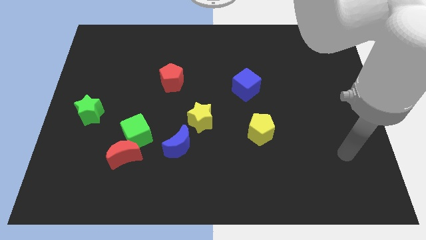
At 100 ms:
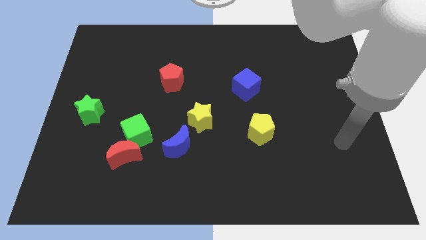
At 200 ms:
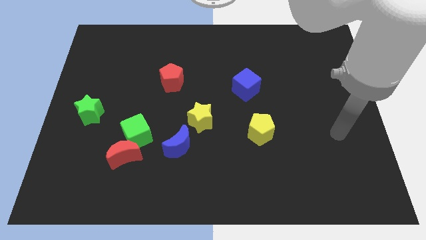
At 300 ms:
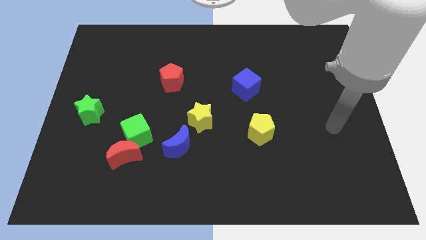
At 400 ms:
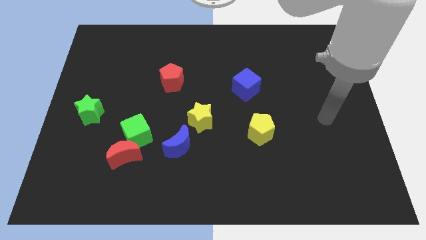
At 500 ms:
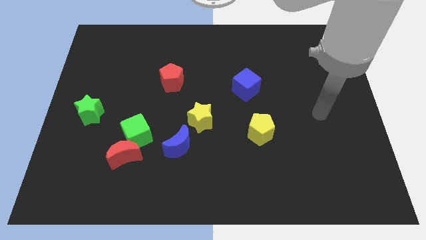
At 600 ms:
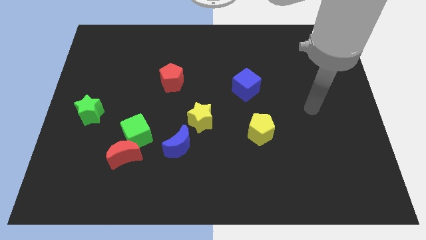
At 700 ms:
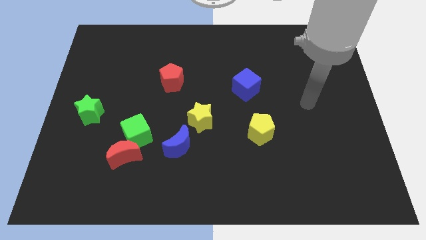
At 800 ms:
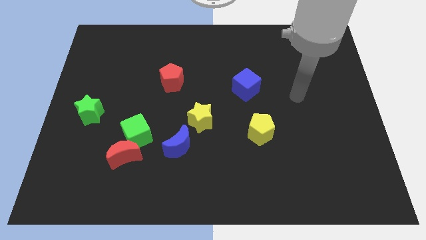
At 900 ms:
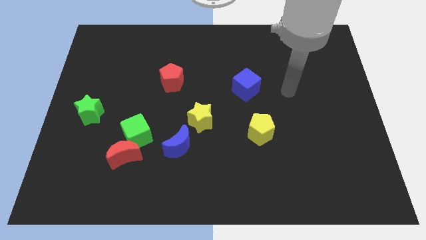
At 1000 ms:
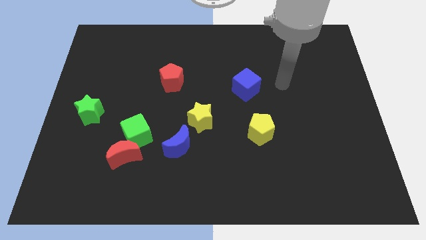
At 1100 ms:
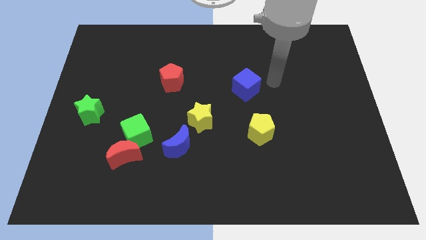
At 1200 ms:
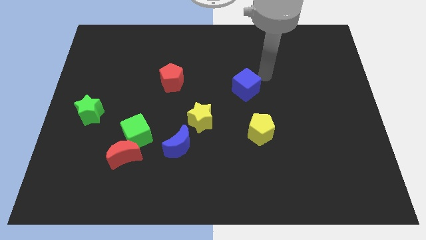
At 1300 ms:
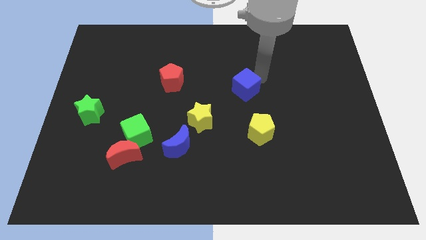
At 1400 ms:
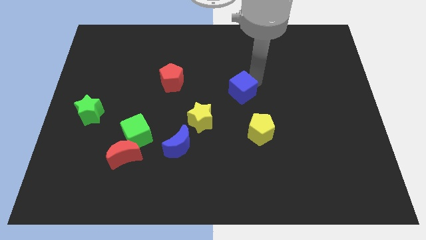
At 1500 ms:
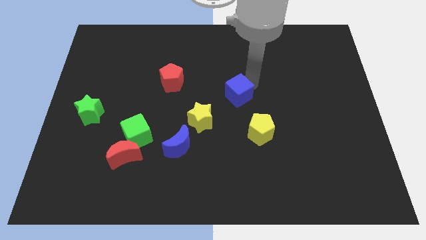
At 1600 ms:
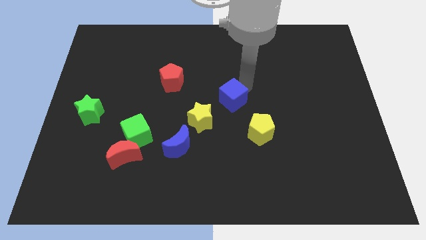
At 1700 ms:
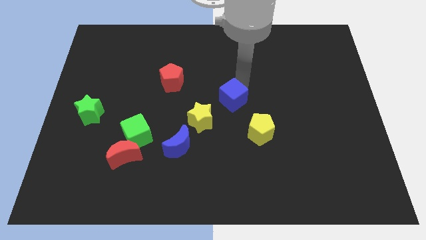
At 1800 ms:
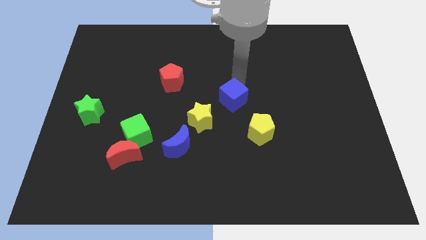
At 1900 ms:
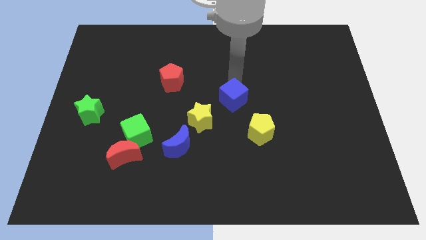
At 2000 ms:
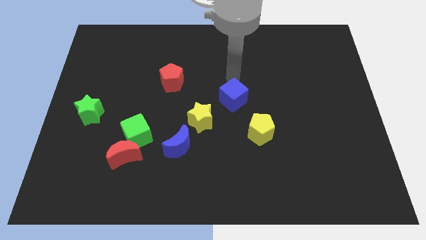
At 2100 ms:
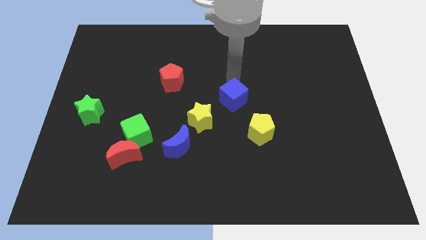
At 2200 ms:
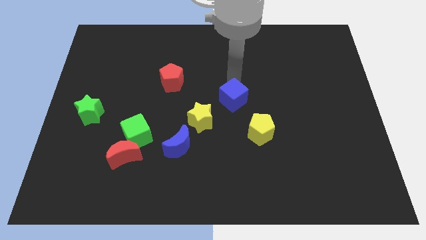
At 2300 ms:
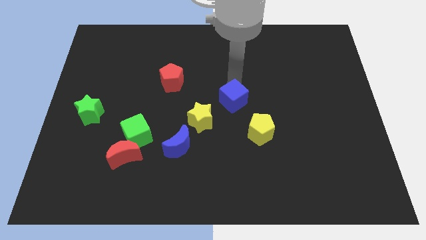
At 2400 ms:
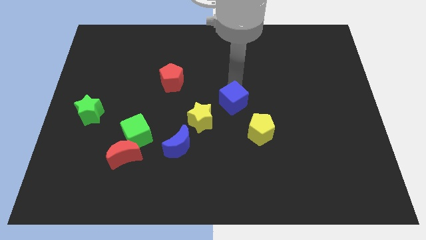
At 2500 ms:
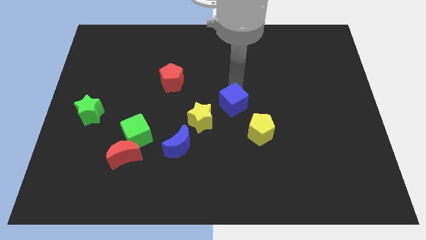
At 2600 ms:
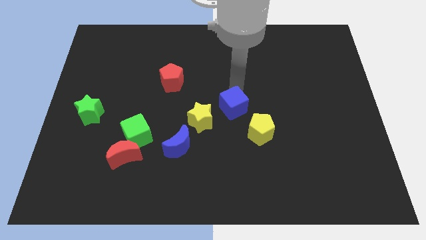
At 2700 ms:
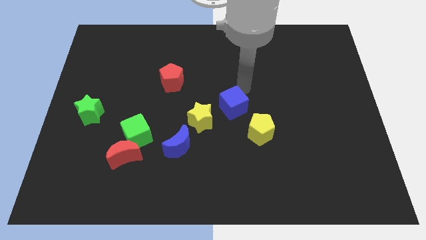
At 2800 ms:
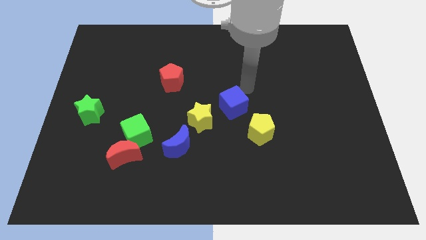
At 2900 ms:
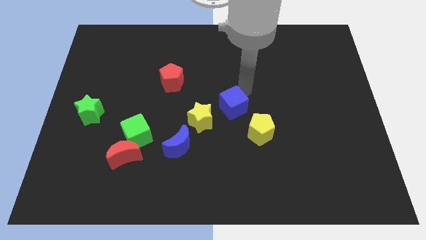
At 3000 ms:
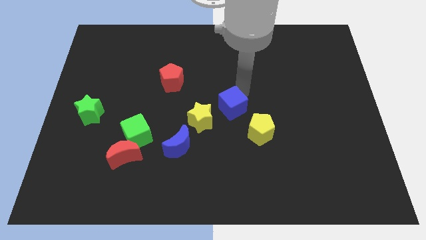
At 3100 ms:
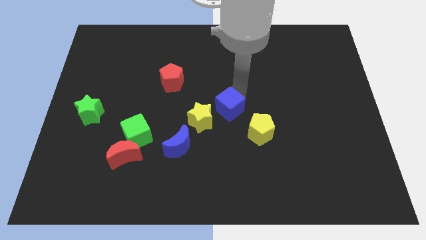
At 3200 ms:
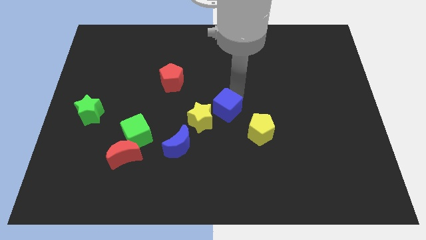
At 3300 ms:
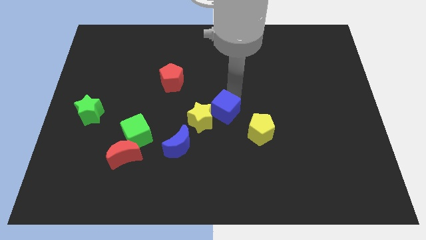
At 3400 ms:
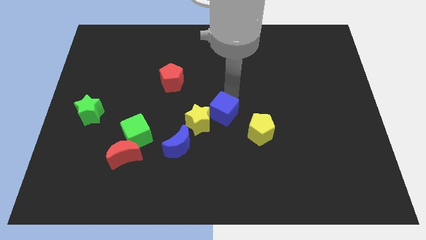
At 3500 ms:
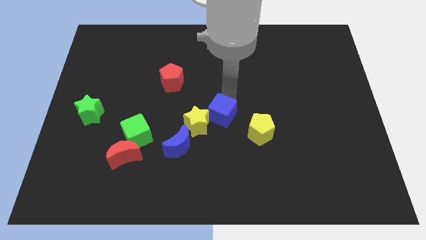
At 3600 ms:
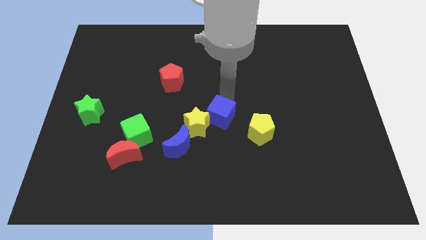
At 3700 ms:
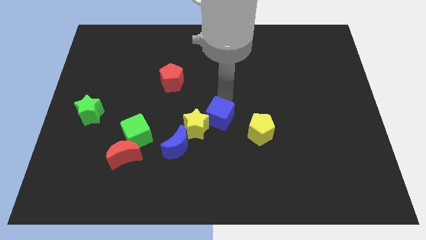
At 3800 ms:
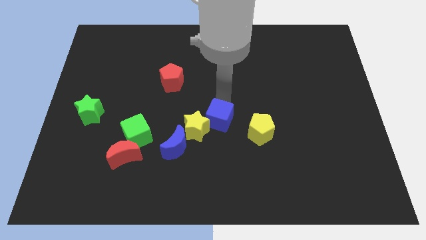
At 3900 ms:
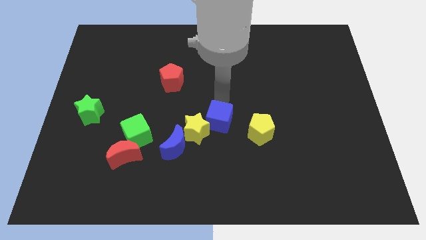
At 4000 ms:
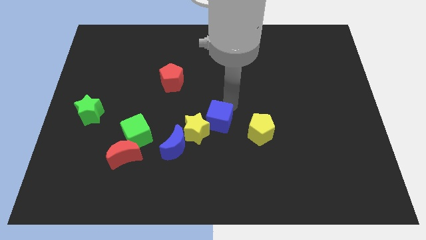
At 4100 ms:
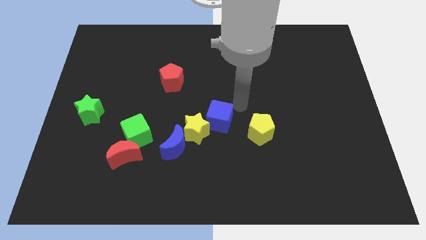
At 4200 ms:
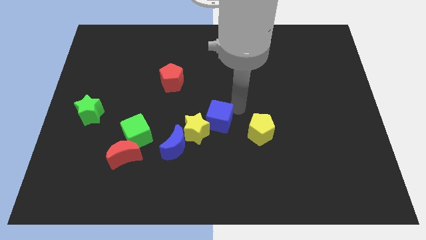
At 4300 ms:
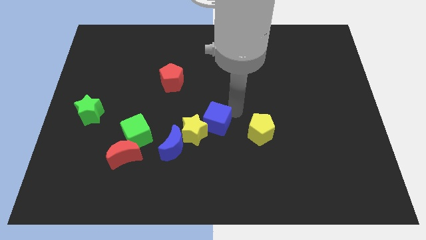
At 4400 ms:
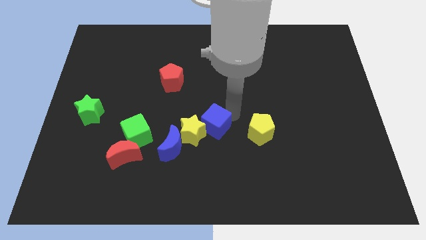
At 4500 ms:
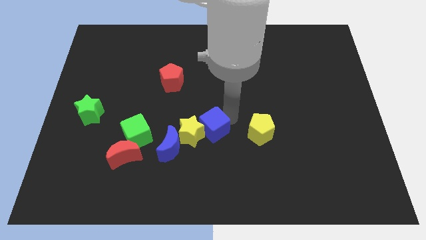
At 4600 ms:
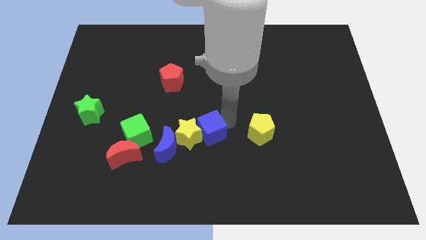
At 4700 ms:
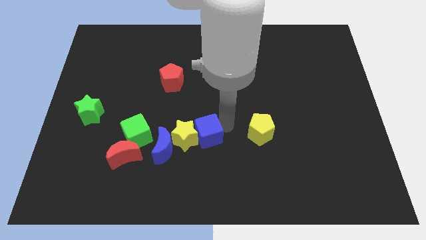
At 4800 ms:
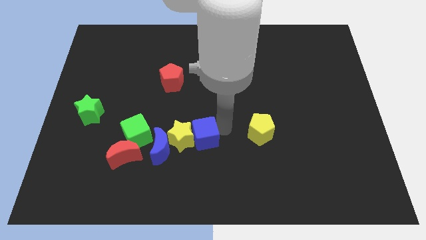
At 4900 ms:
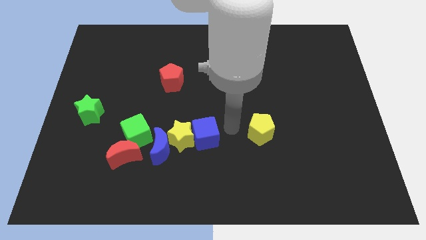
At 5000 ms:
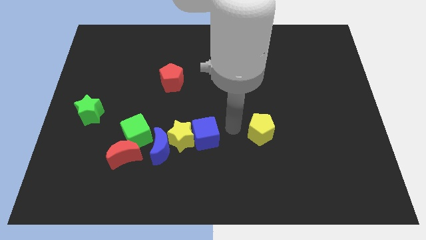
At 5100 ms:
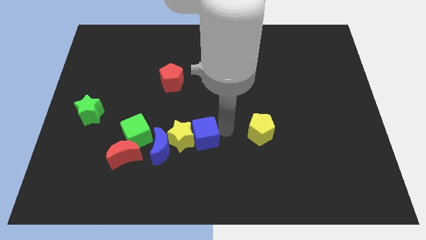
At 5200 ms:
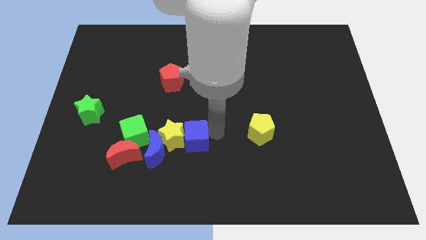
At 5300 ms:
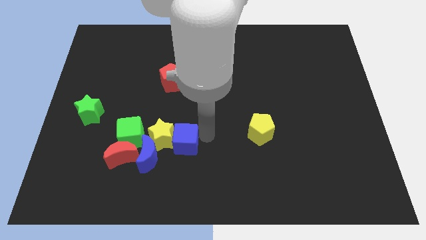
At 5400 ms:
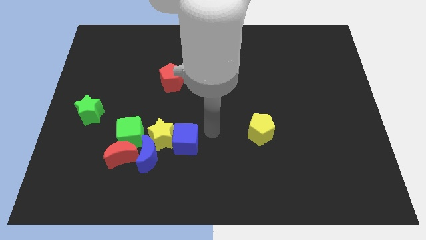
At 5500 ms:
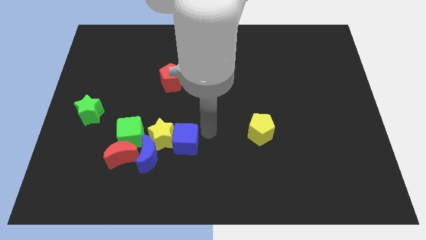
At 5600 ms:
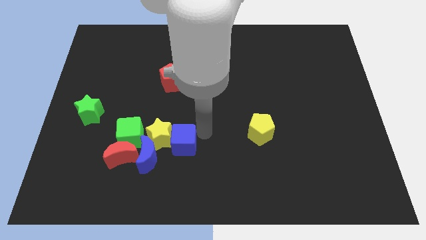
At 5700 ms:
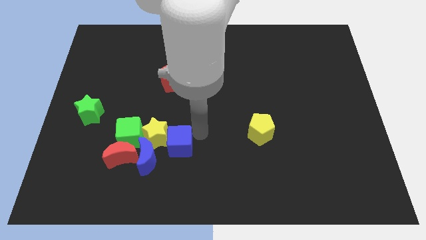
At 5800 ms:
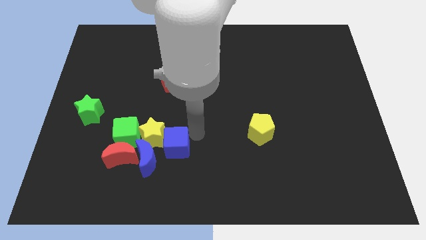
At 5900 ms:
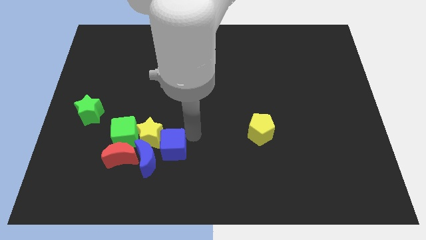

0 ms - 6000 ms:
push the blue cube next to the blue moon

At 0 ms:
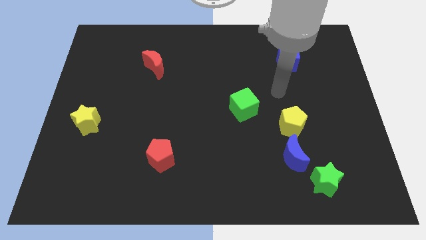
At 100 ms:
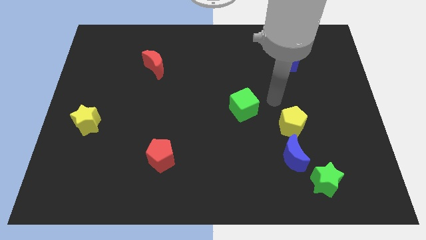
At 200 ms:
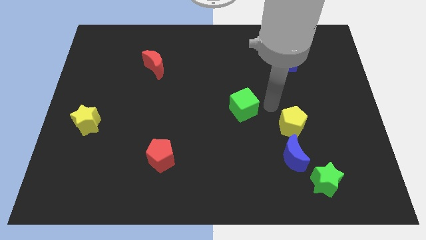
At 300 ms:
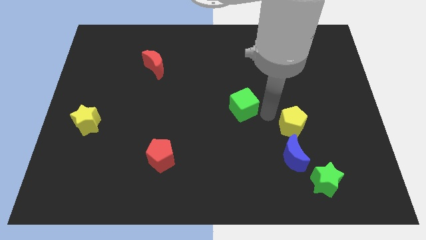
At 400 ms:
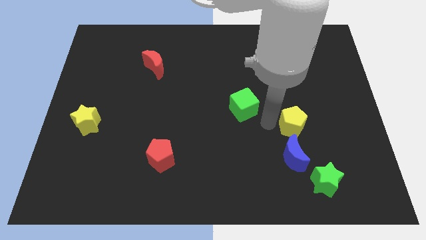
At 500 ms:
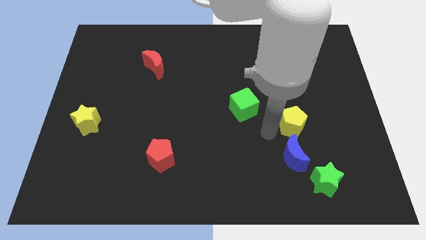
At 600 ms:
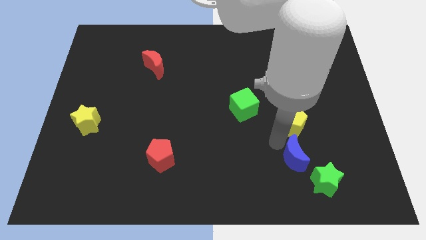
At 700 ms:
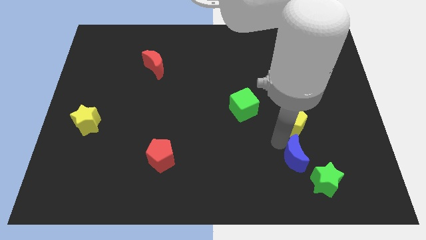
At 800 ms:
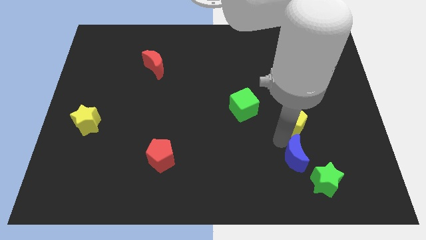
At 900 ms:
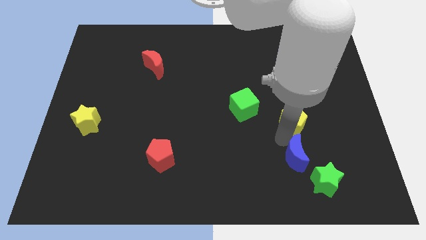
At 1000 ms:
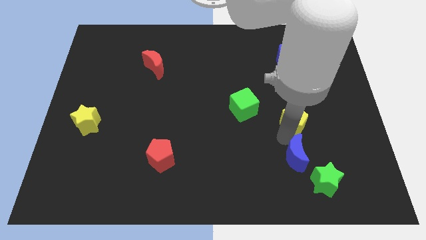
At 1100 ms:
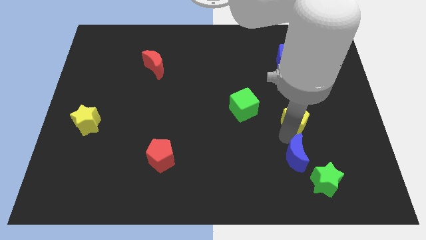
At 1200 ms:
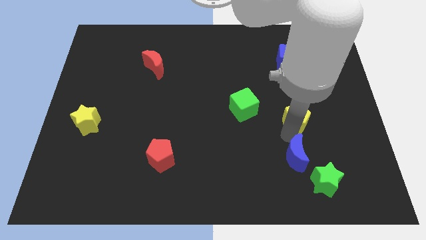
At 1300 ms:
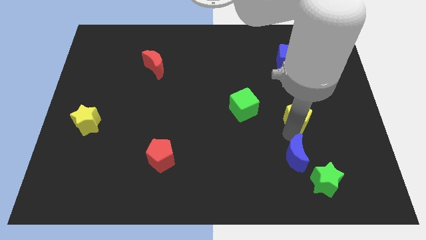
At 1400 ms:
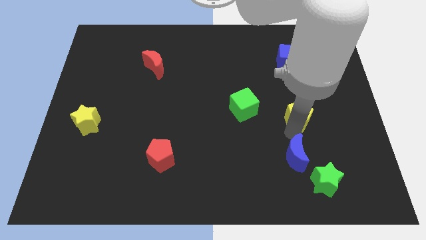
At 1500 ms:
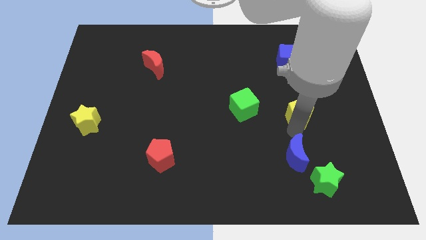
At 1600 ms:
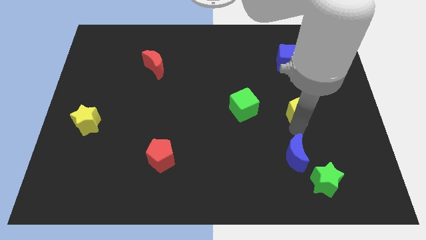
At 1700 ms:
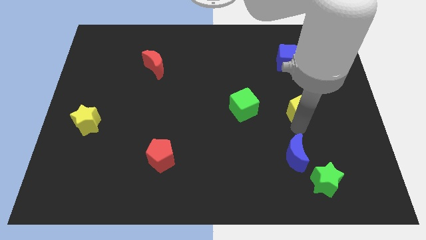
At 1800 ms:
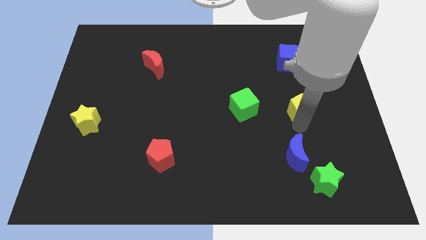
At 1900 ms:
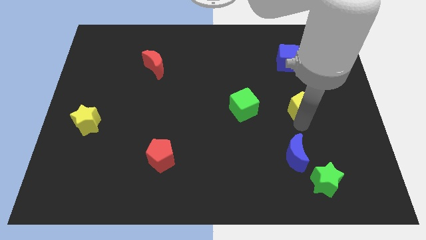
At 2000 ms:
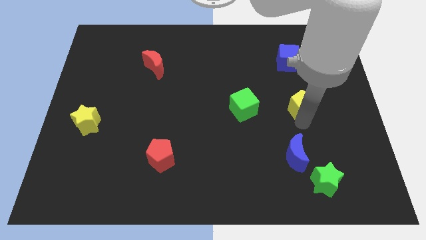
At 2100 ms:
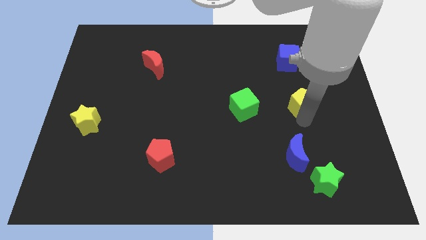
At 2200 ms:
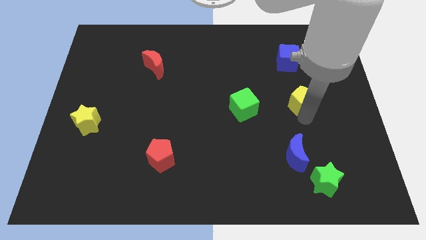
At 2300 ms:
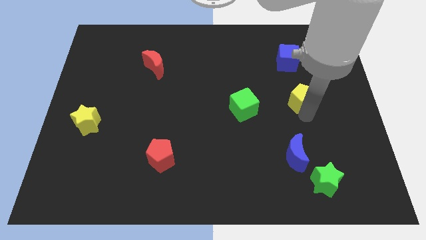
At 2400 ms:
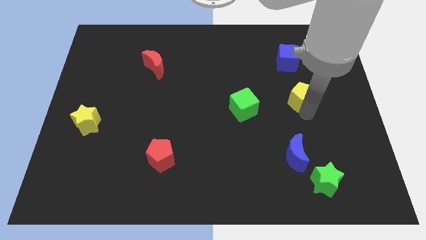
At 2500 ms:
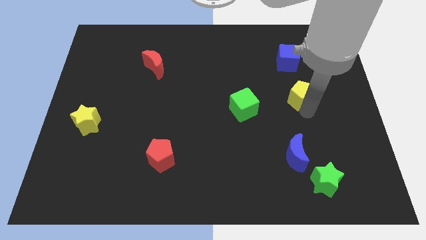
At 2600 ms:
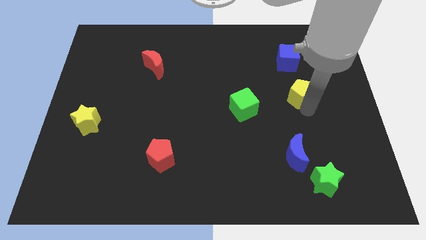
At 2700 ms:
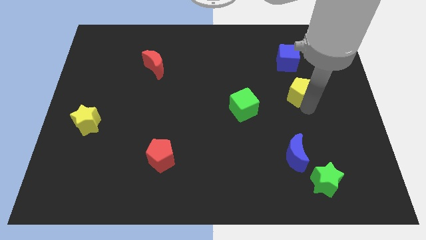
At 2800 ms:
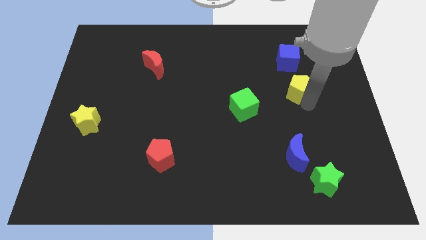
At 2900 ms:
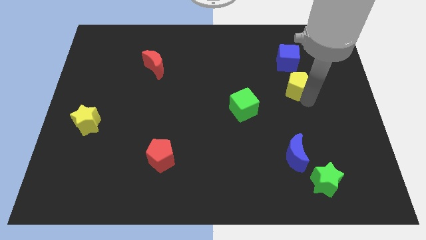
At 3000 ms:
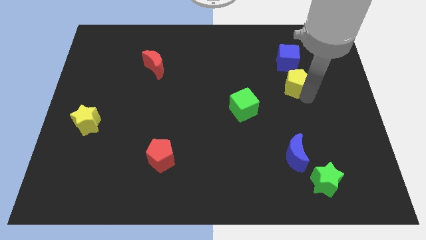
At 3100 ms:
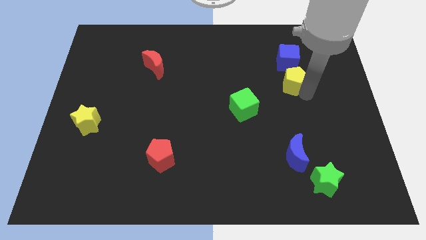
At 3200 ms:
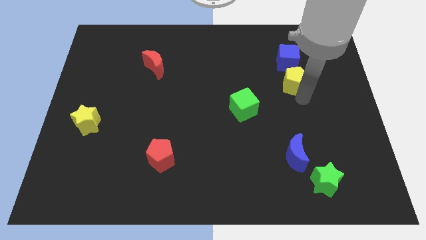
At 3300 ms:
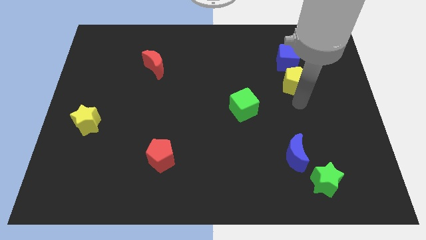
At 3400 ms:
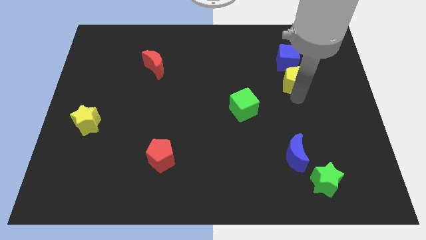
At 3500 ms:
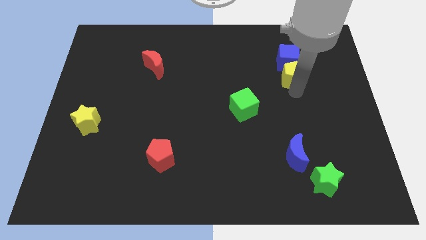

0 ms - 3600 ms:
push the yellow pentagon close to the blue cube
